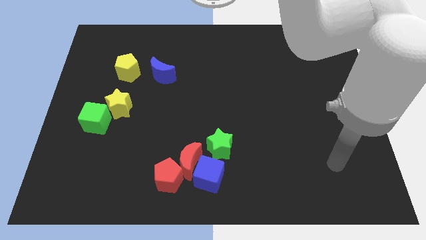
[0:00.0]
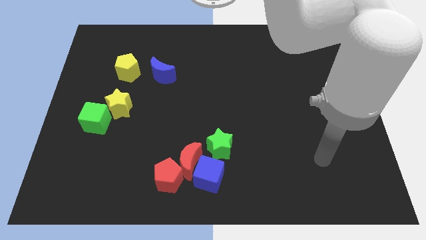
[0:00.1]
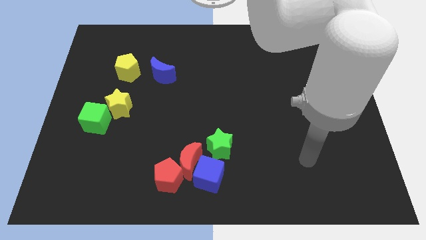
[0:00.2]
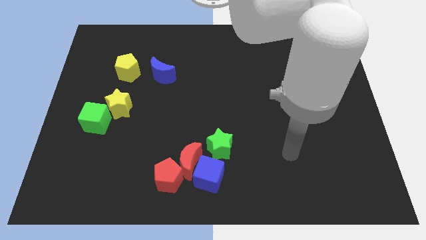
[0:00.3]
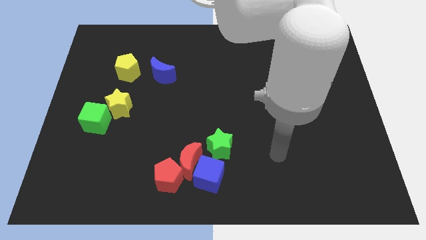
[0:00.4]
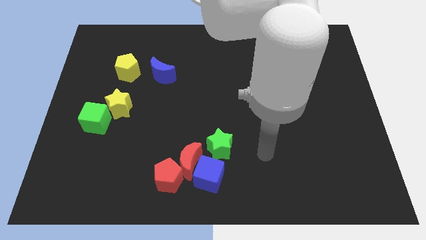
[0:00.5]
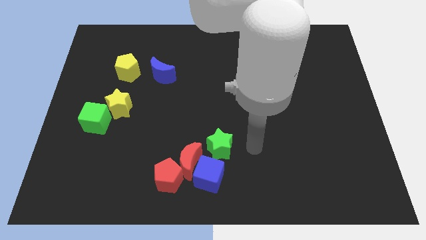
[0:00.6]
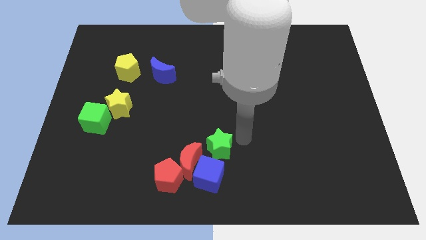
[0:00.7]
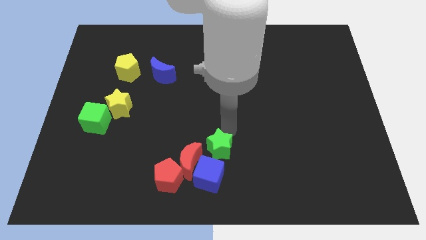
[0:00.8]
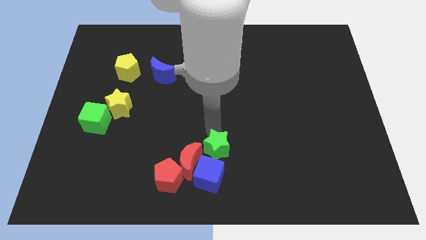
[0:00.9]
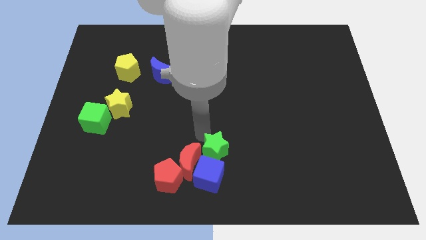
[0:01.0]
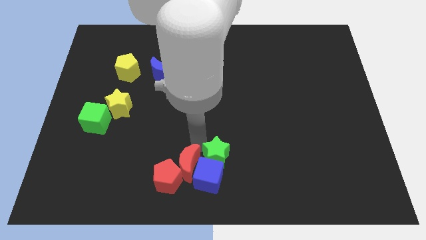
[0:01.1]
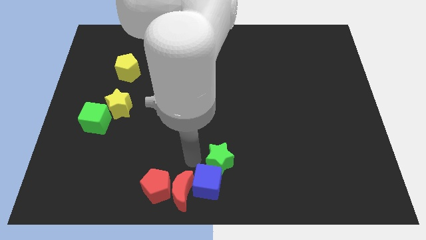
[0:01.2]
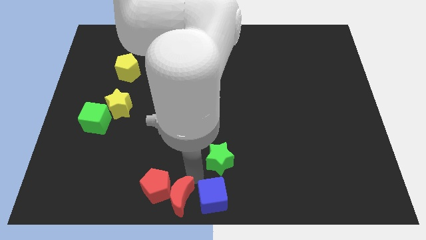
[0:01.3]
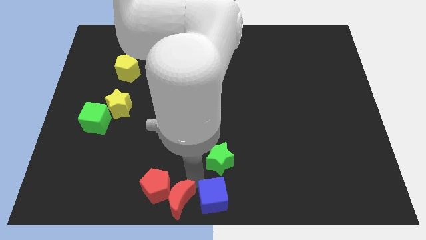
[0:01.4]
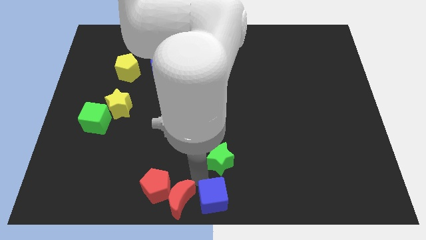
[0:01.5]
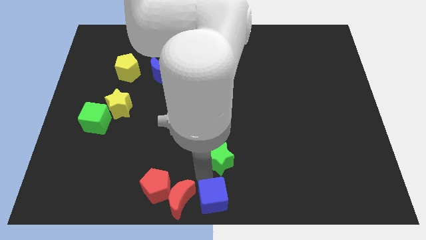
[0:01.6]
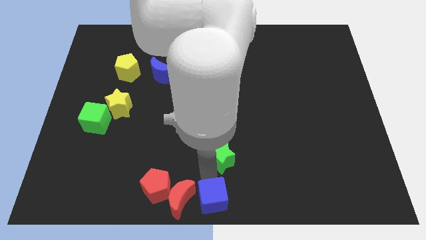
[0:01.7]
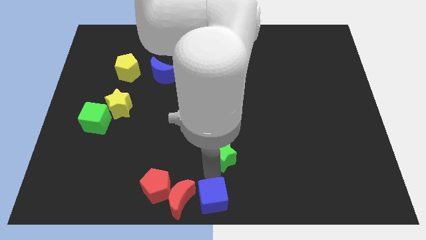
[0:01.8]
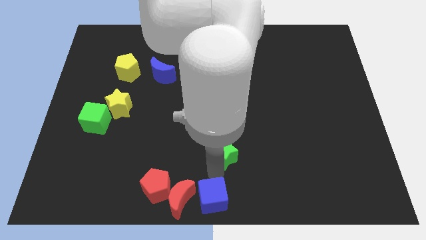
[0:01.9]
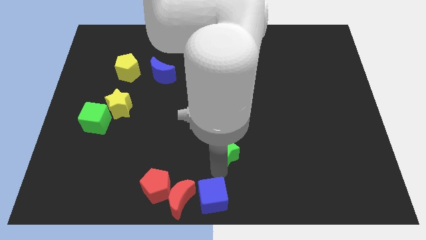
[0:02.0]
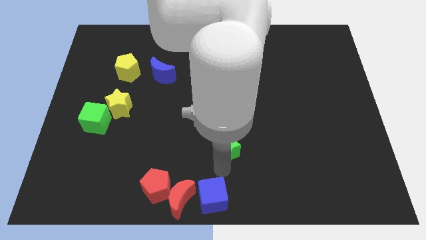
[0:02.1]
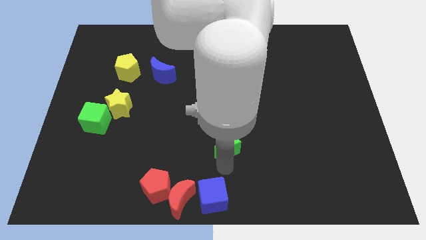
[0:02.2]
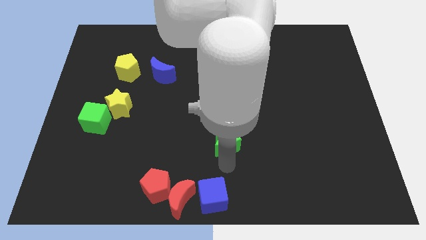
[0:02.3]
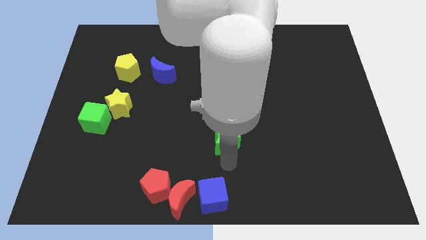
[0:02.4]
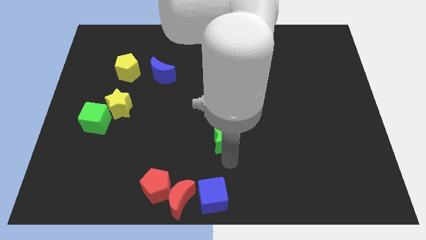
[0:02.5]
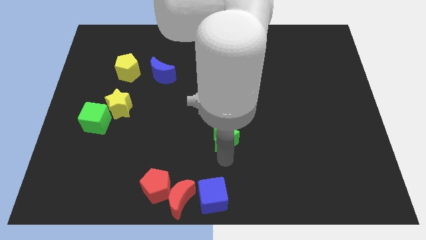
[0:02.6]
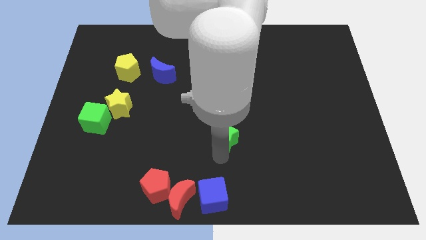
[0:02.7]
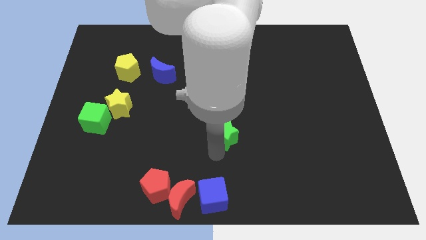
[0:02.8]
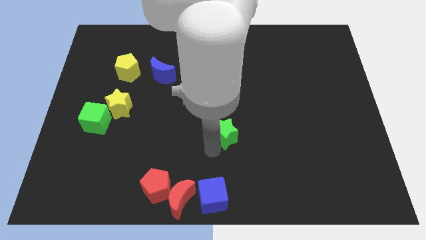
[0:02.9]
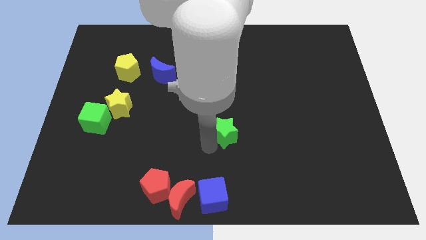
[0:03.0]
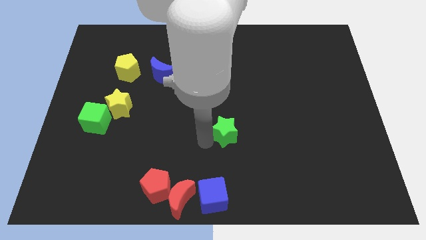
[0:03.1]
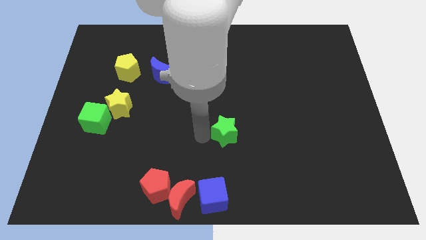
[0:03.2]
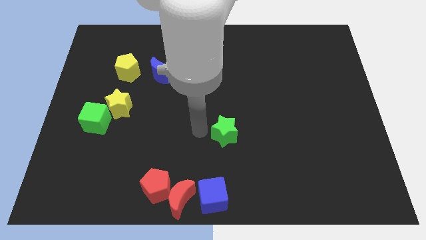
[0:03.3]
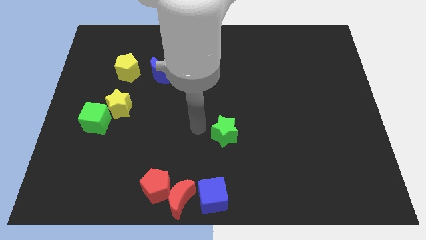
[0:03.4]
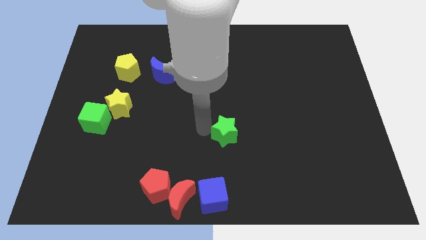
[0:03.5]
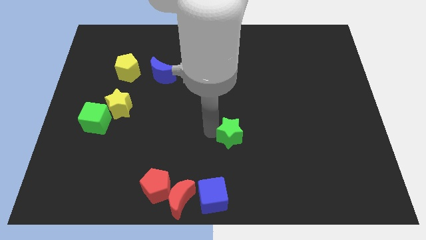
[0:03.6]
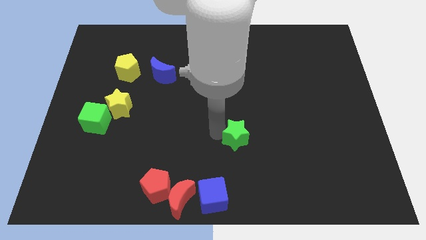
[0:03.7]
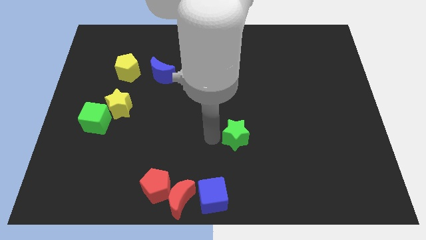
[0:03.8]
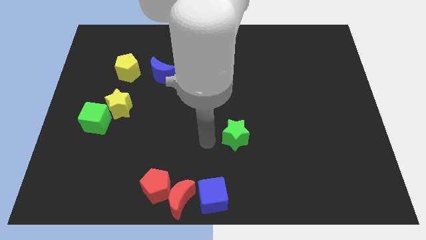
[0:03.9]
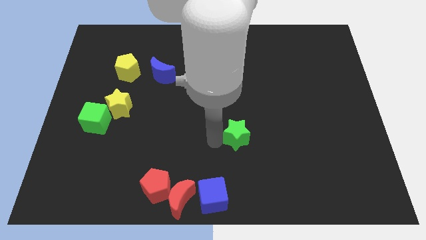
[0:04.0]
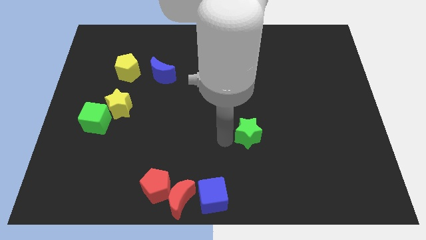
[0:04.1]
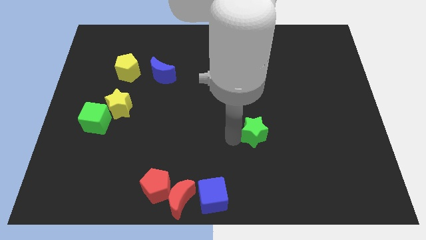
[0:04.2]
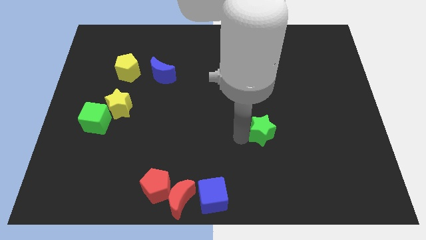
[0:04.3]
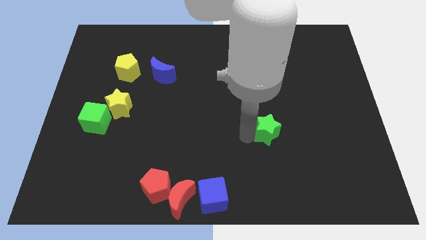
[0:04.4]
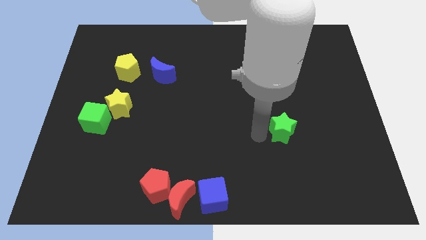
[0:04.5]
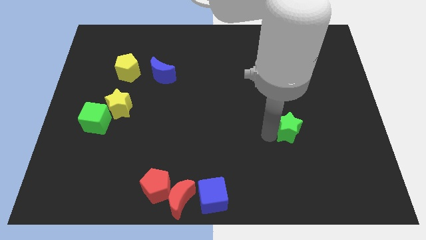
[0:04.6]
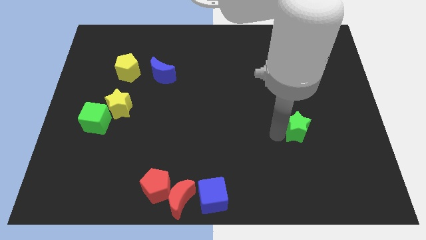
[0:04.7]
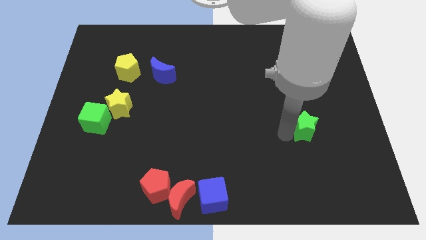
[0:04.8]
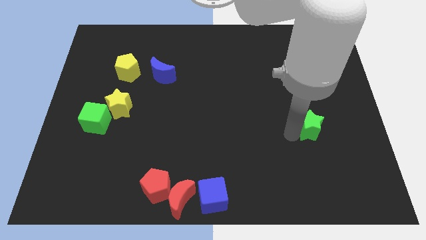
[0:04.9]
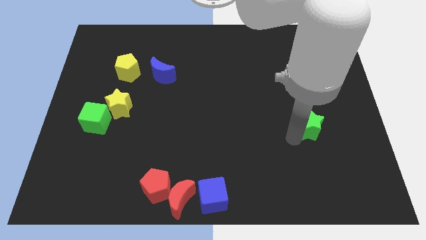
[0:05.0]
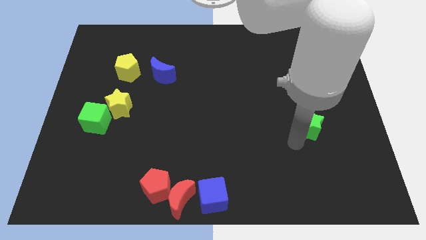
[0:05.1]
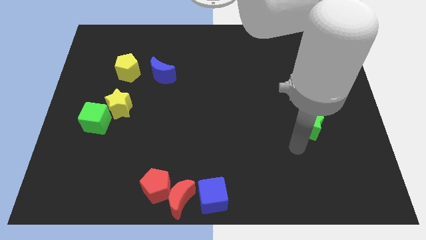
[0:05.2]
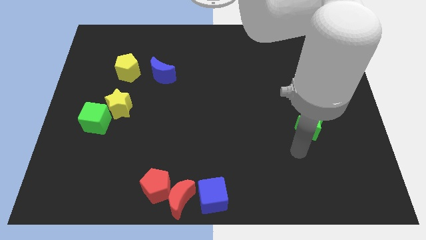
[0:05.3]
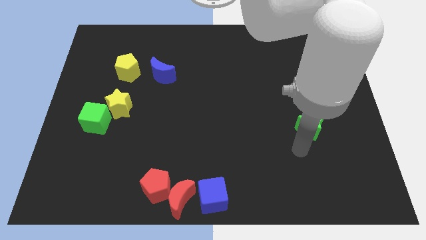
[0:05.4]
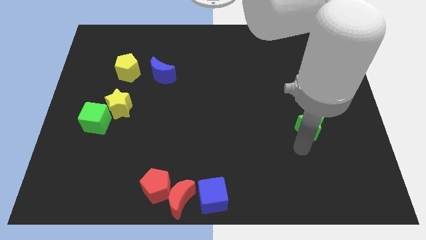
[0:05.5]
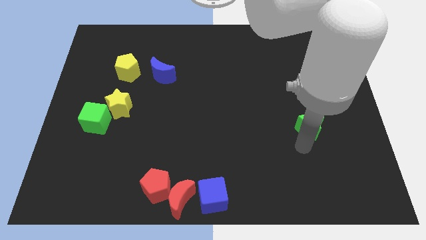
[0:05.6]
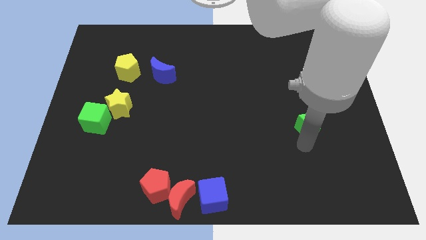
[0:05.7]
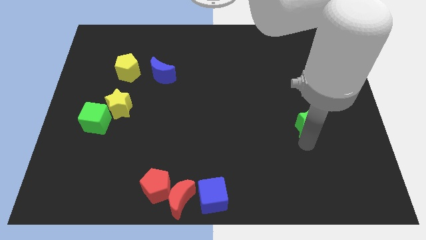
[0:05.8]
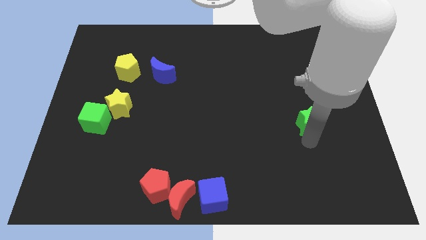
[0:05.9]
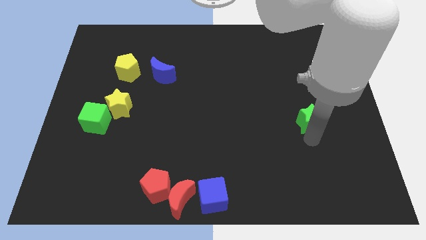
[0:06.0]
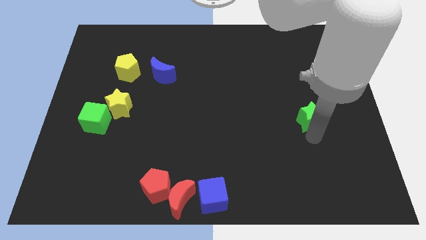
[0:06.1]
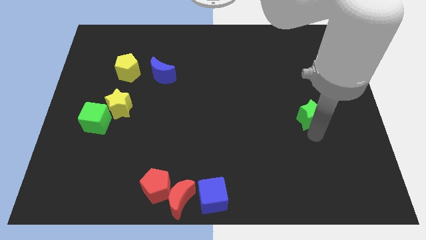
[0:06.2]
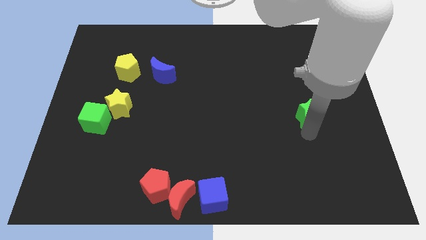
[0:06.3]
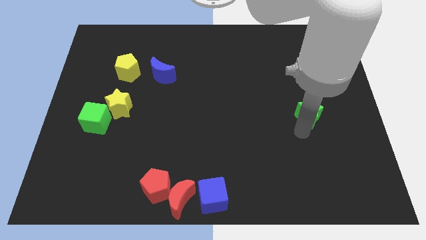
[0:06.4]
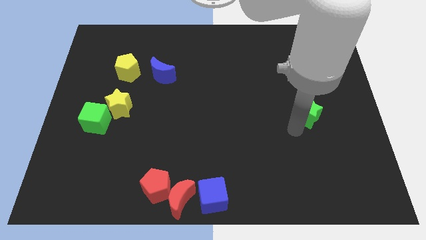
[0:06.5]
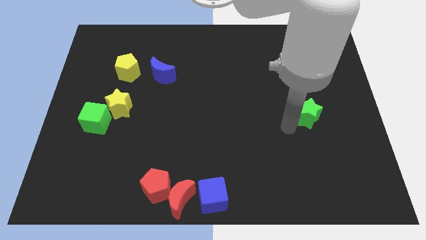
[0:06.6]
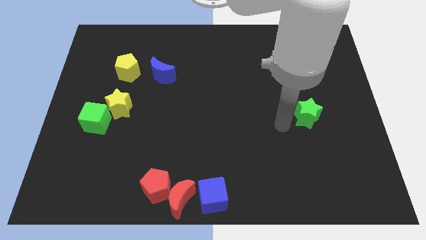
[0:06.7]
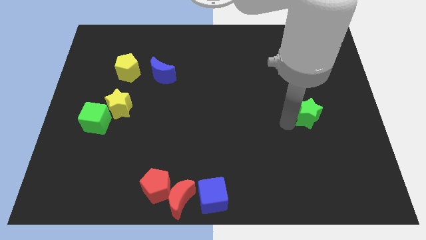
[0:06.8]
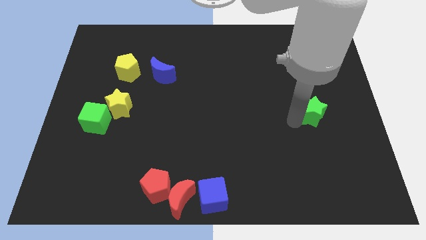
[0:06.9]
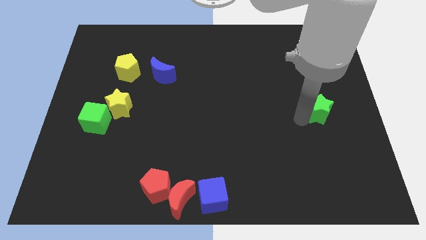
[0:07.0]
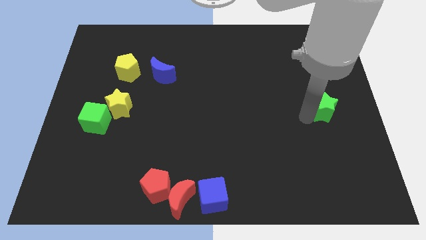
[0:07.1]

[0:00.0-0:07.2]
push the green star to the right side of the board
